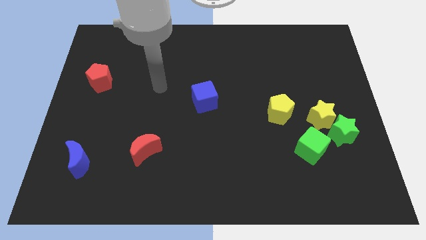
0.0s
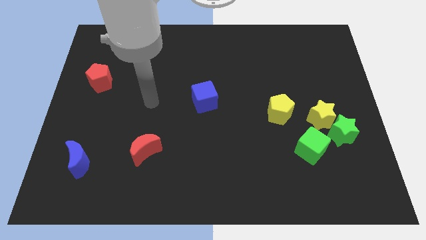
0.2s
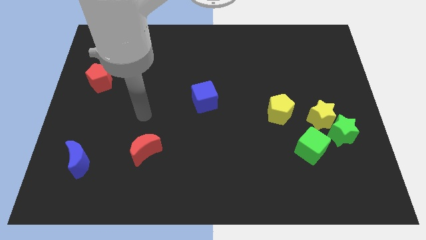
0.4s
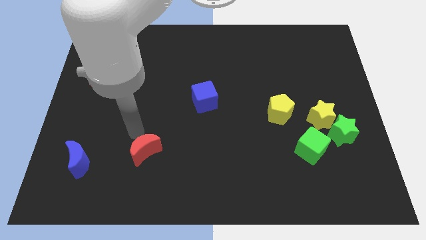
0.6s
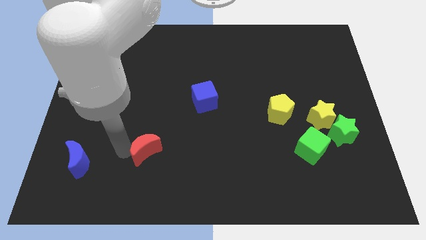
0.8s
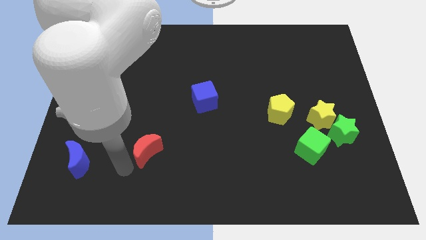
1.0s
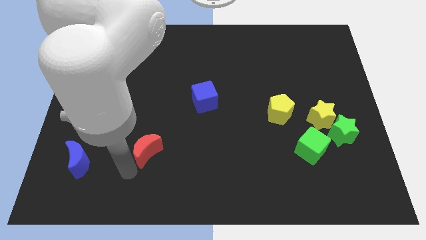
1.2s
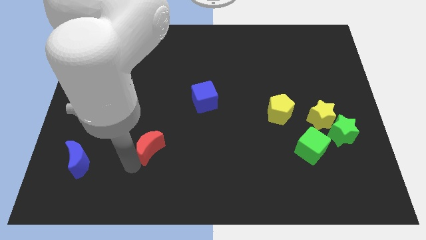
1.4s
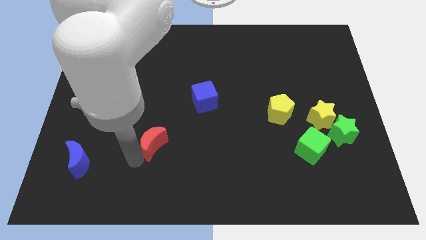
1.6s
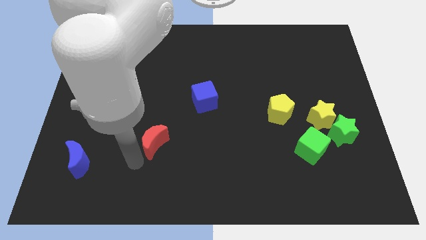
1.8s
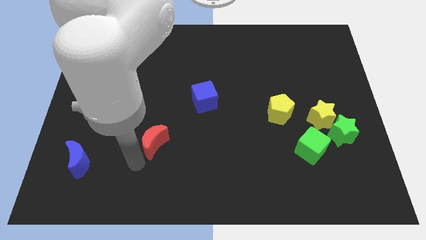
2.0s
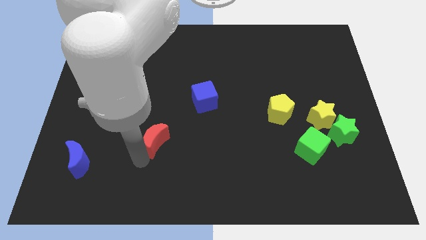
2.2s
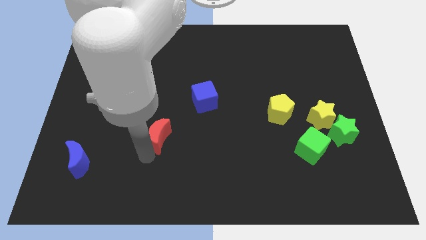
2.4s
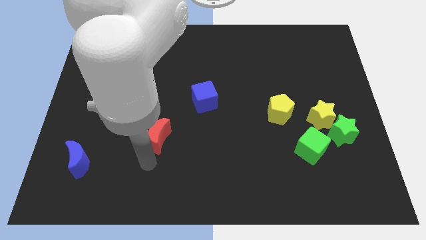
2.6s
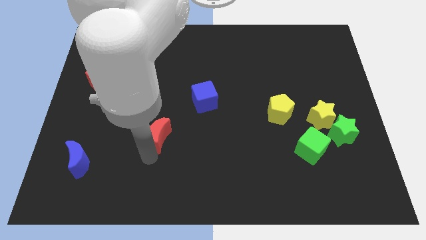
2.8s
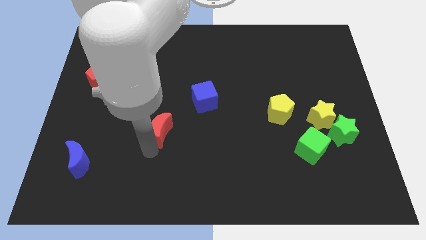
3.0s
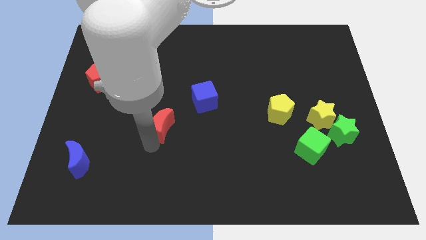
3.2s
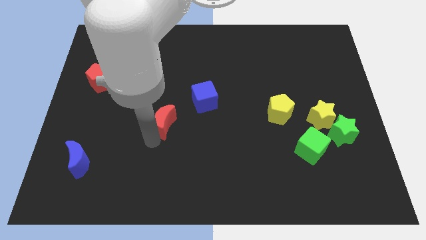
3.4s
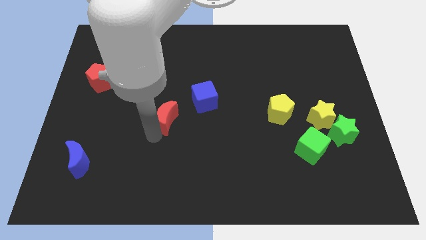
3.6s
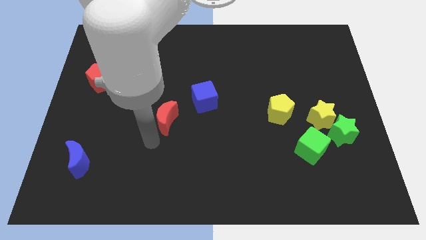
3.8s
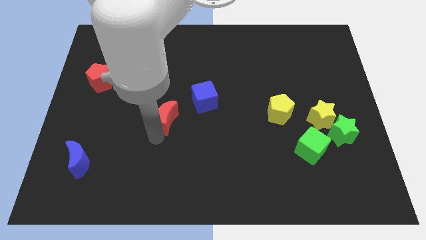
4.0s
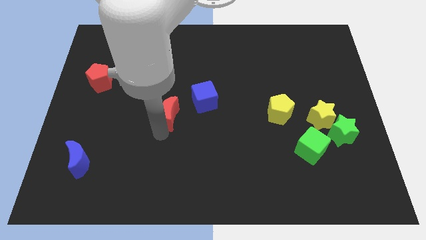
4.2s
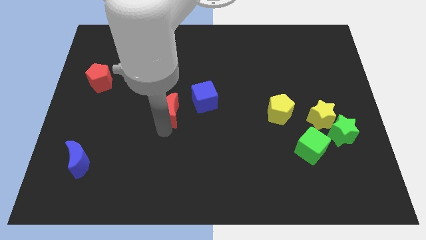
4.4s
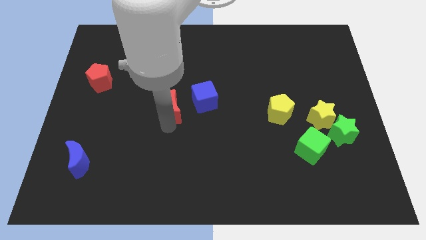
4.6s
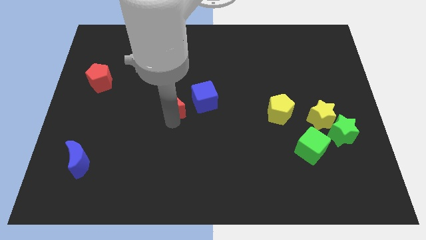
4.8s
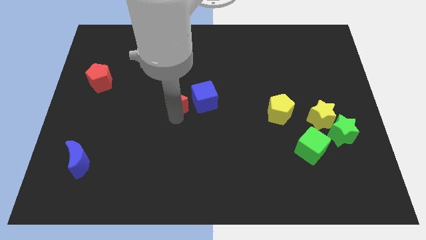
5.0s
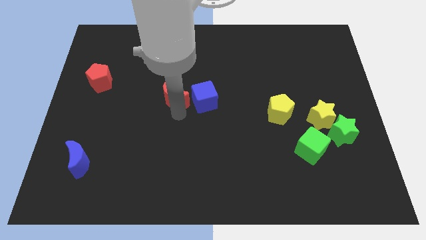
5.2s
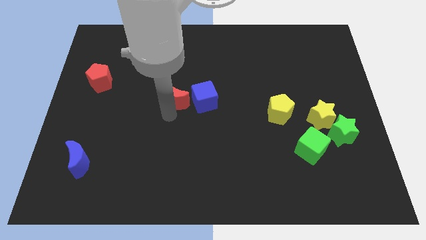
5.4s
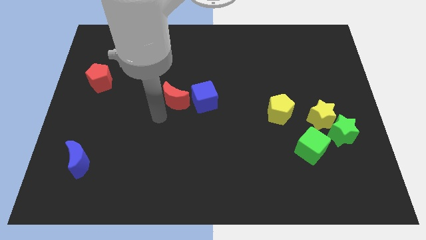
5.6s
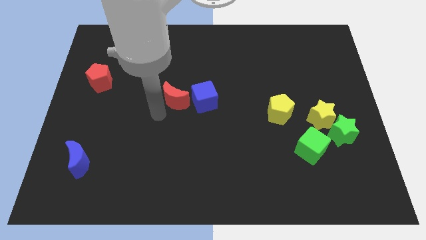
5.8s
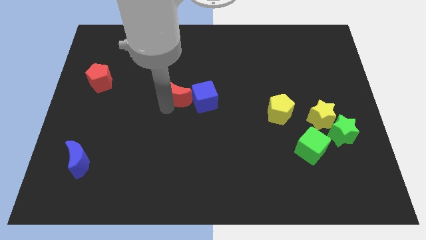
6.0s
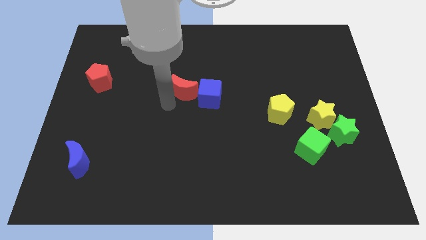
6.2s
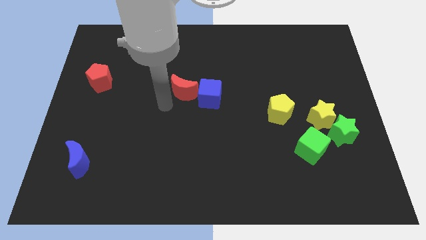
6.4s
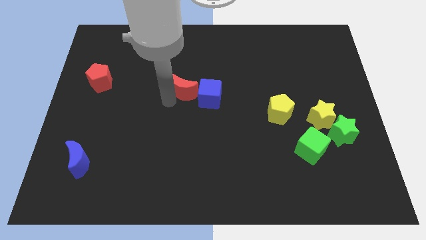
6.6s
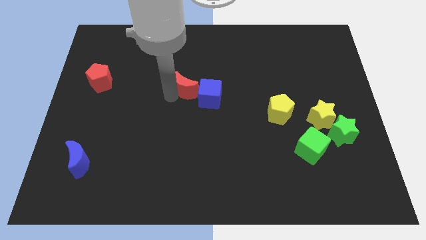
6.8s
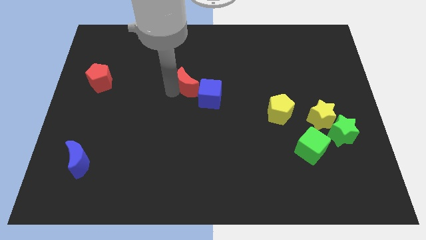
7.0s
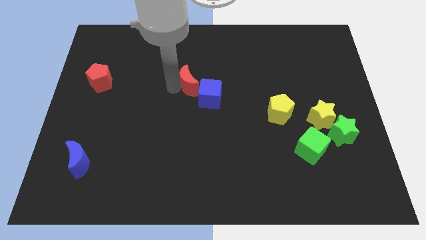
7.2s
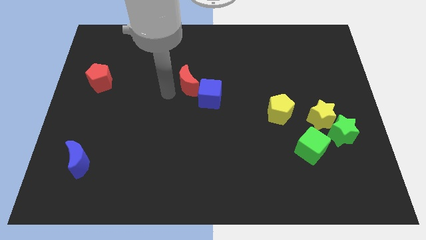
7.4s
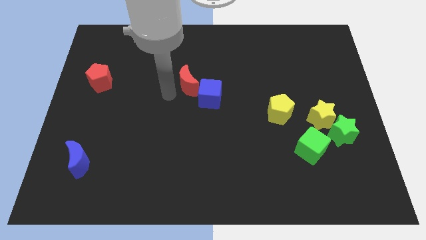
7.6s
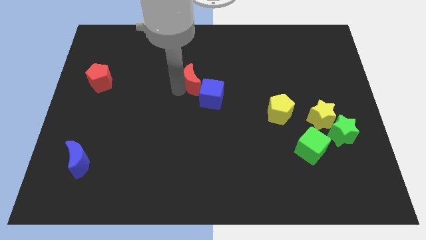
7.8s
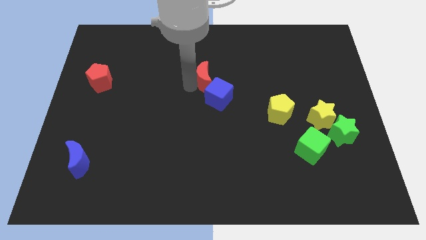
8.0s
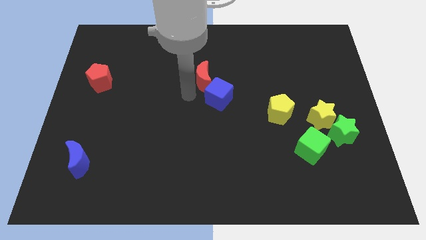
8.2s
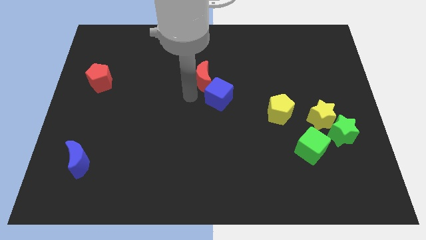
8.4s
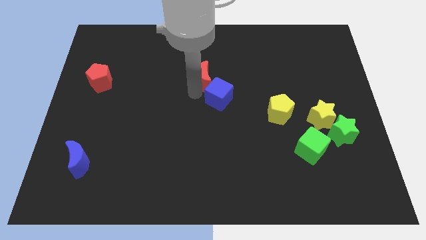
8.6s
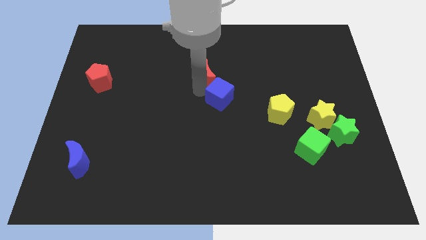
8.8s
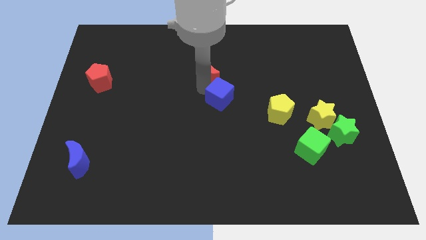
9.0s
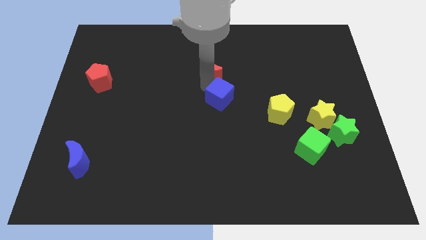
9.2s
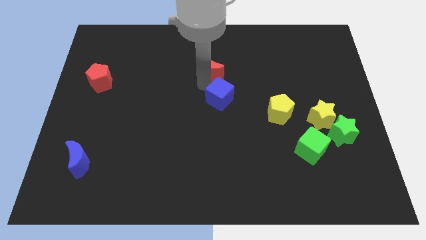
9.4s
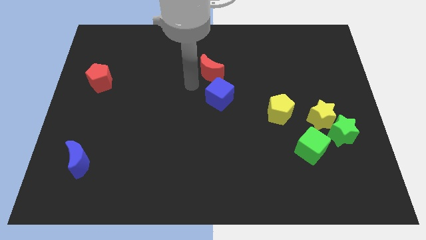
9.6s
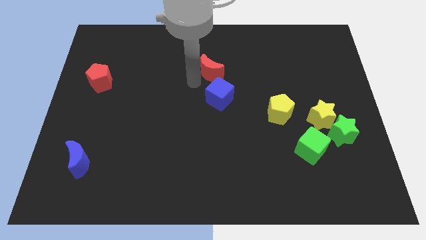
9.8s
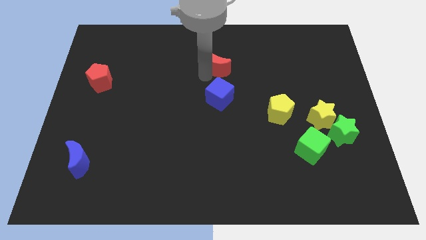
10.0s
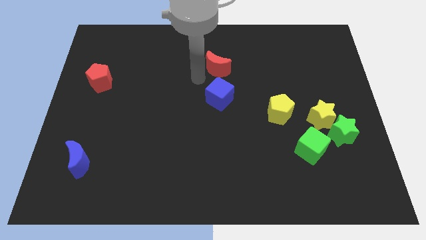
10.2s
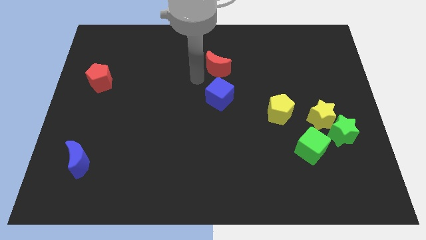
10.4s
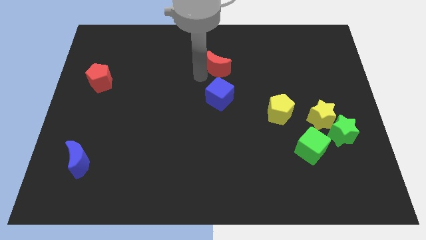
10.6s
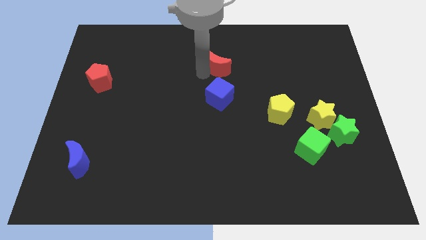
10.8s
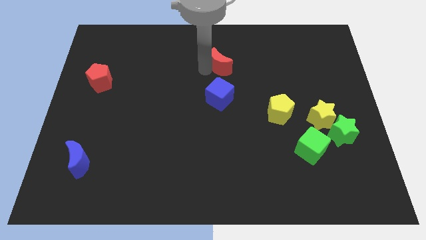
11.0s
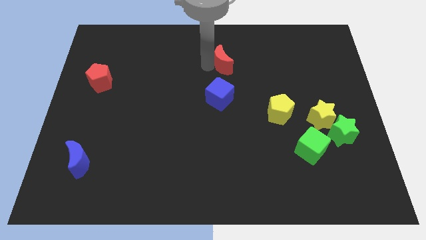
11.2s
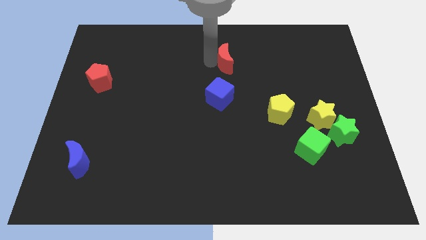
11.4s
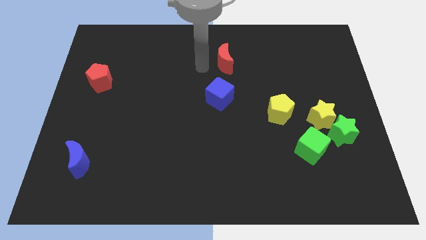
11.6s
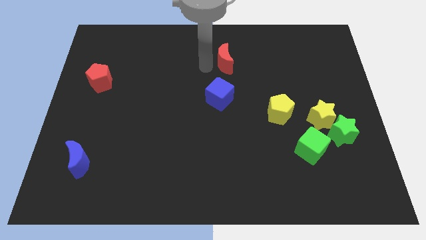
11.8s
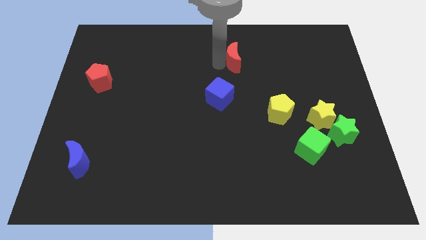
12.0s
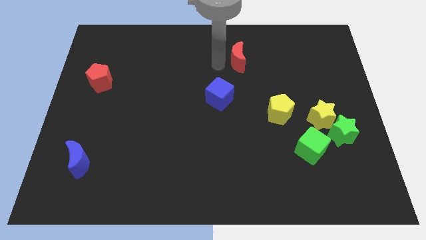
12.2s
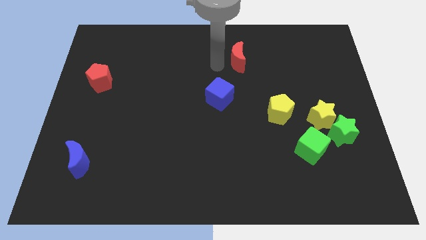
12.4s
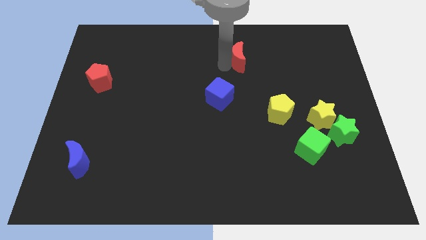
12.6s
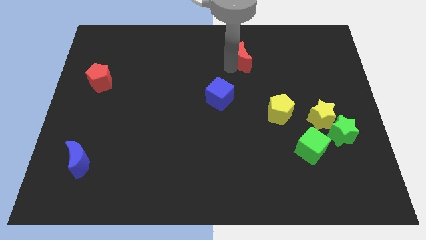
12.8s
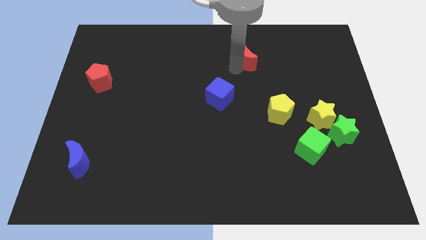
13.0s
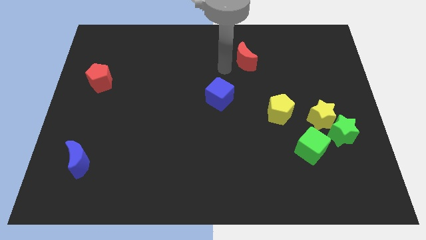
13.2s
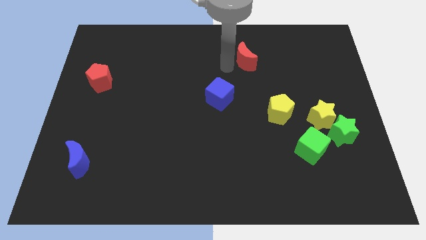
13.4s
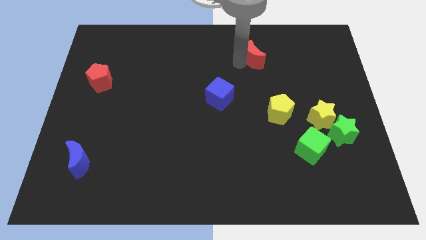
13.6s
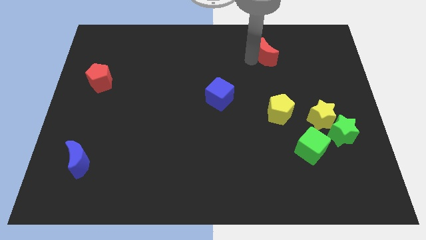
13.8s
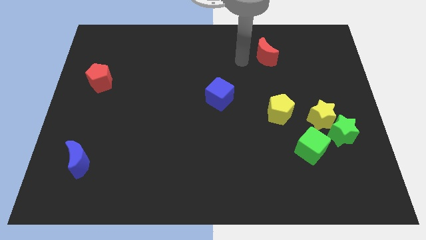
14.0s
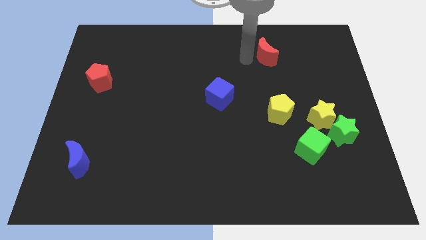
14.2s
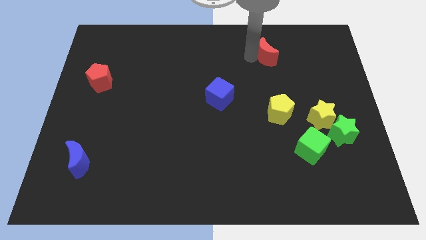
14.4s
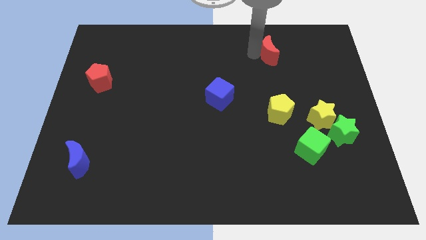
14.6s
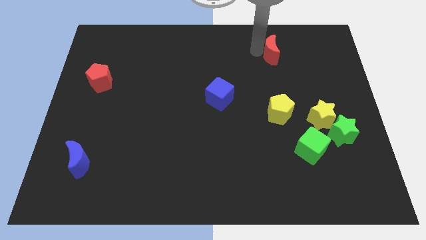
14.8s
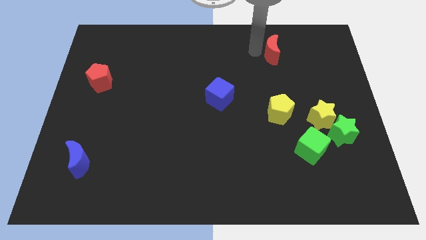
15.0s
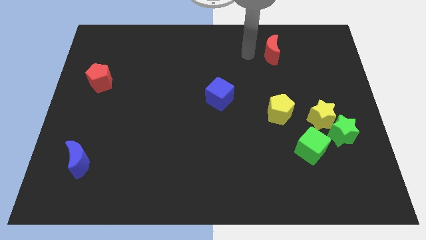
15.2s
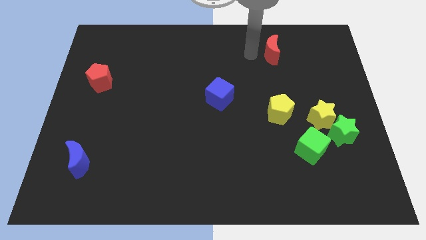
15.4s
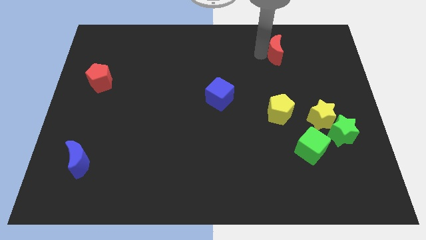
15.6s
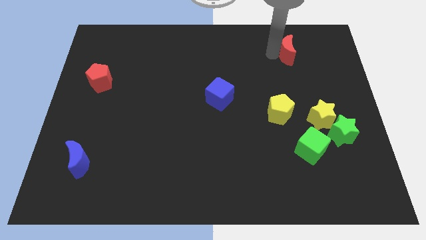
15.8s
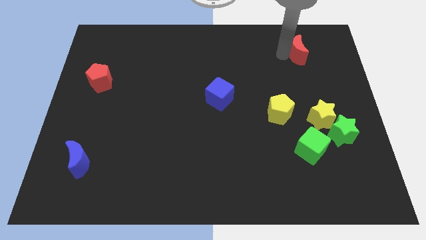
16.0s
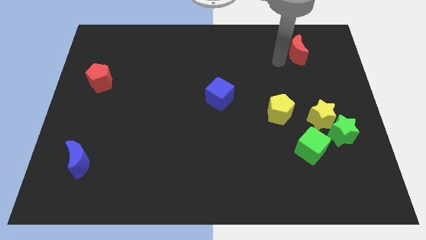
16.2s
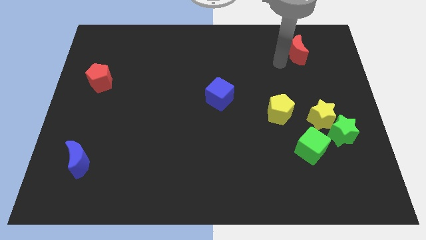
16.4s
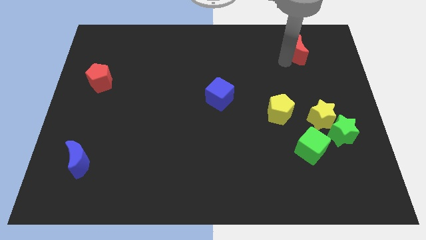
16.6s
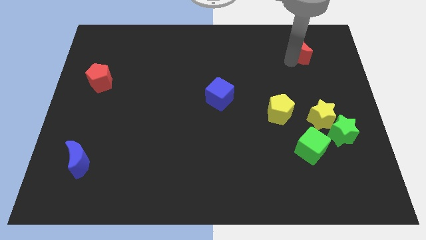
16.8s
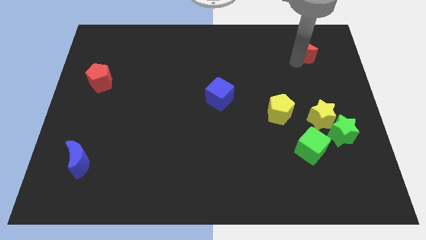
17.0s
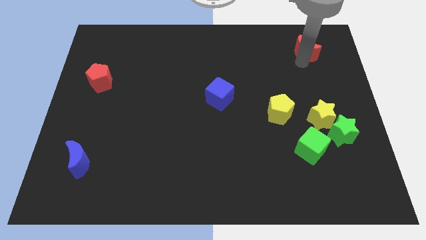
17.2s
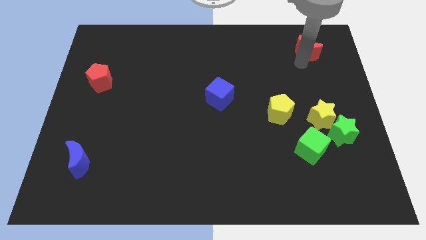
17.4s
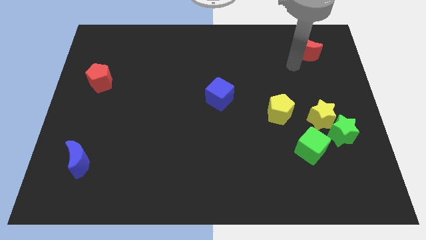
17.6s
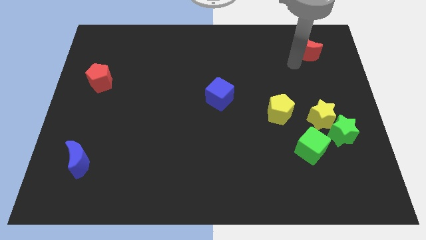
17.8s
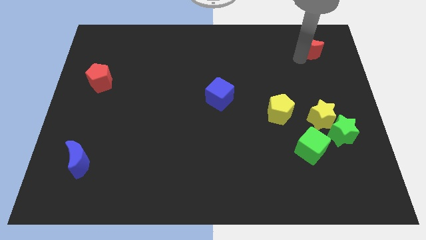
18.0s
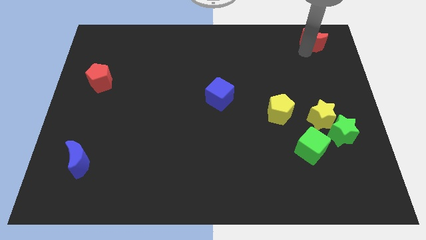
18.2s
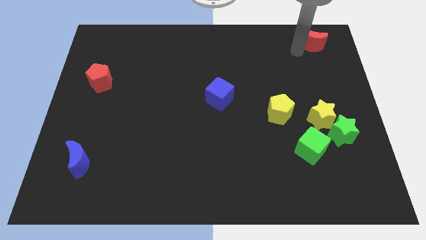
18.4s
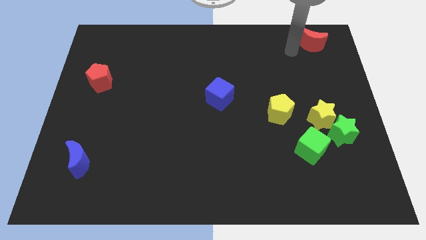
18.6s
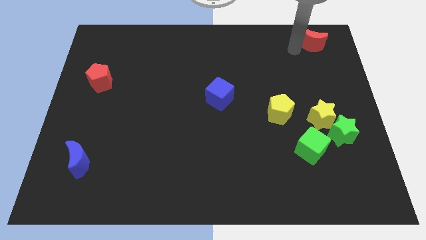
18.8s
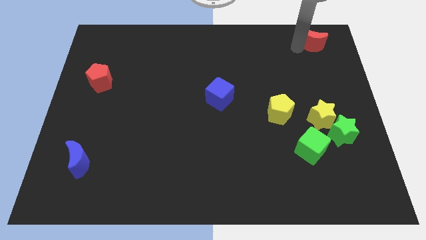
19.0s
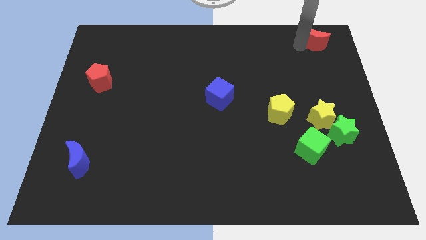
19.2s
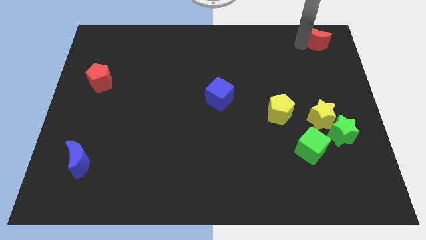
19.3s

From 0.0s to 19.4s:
move the red moon to the top right corner
